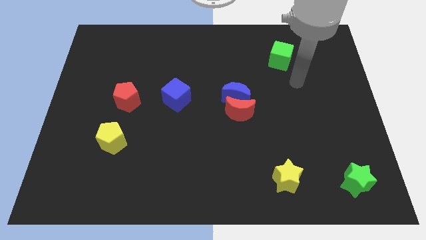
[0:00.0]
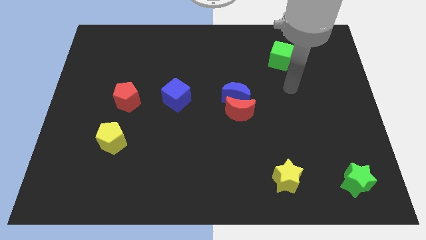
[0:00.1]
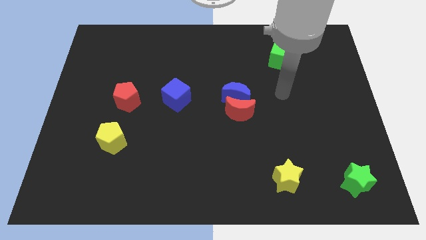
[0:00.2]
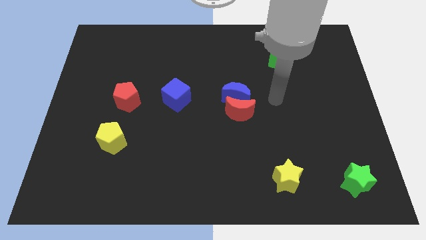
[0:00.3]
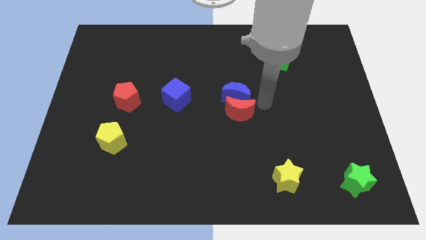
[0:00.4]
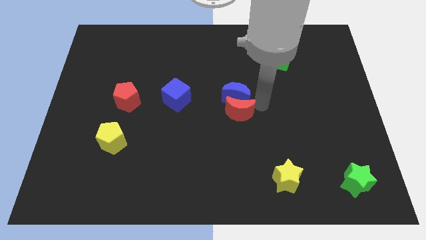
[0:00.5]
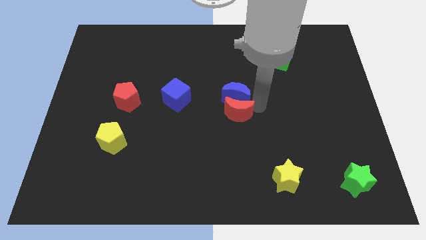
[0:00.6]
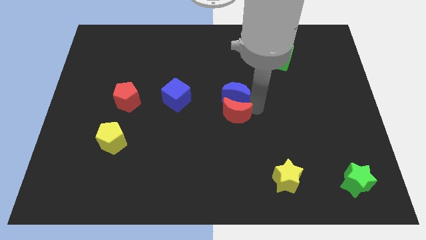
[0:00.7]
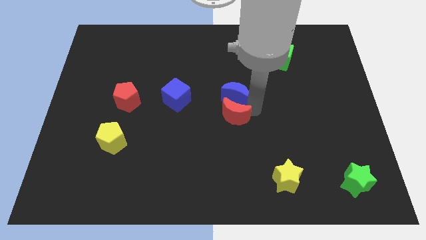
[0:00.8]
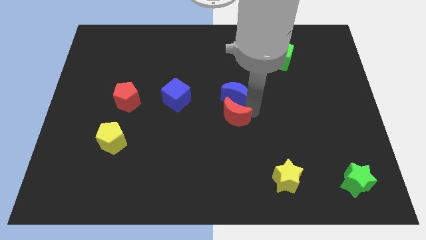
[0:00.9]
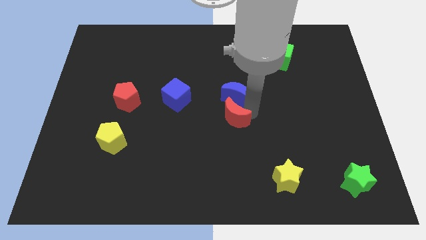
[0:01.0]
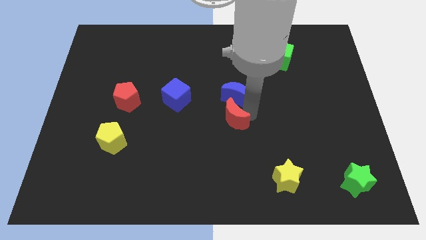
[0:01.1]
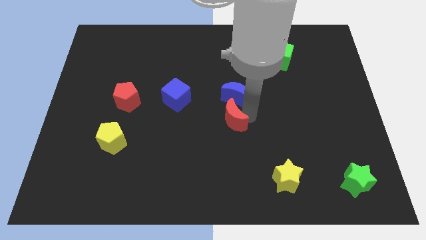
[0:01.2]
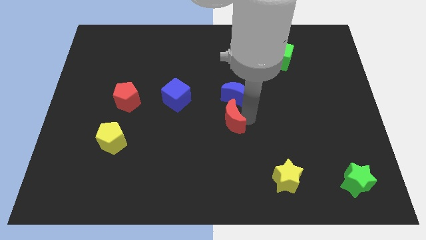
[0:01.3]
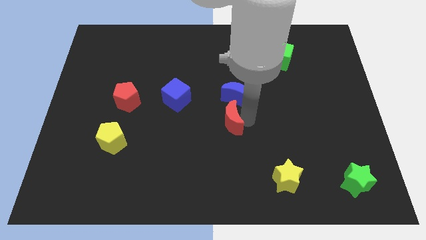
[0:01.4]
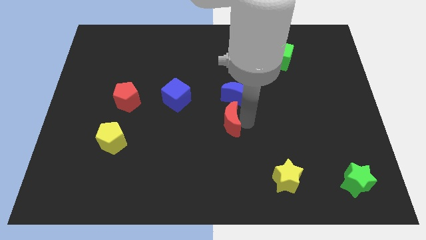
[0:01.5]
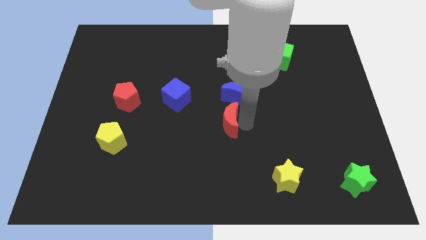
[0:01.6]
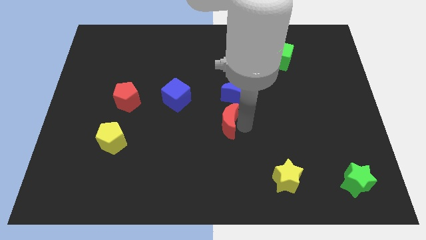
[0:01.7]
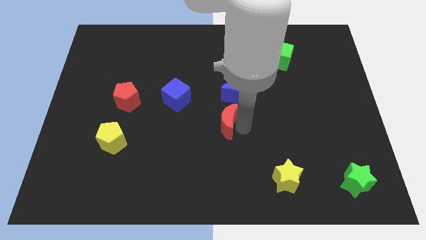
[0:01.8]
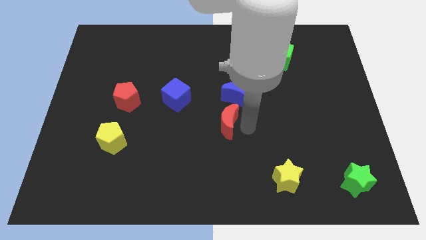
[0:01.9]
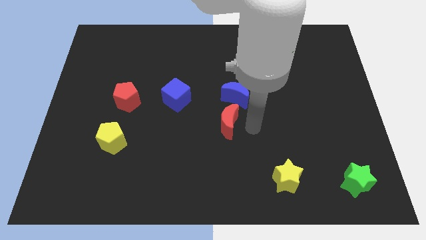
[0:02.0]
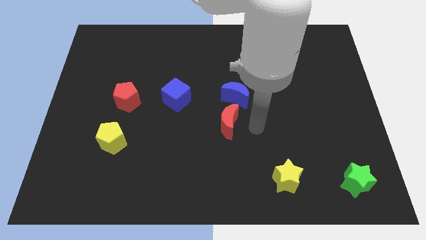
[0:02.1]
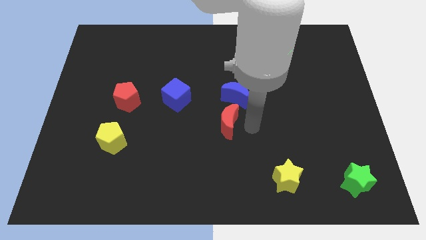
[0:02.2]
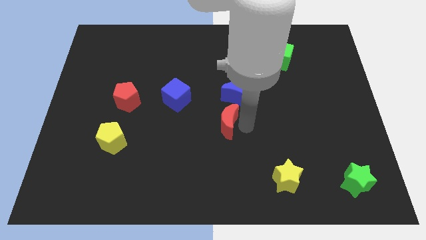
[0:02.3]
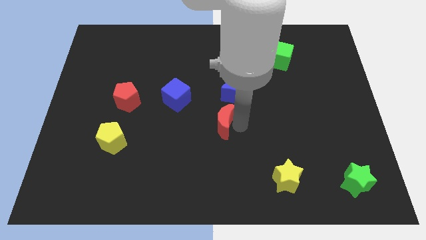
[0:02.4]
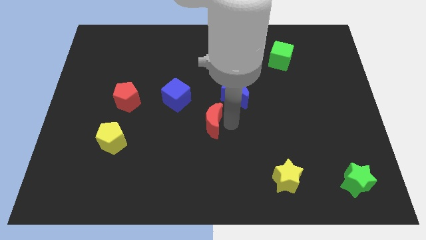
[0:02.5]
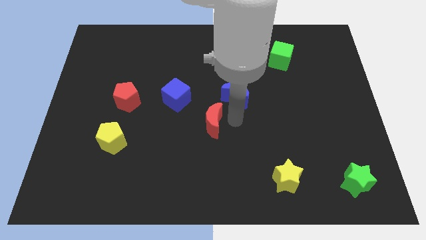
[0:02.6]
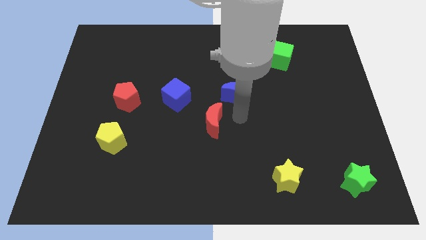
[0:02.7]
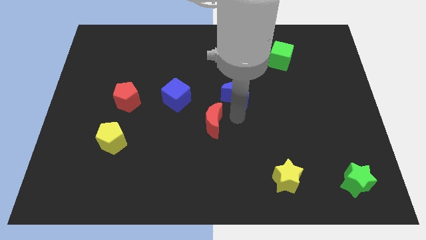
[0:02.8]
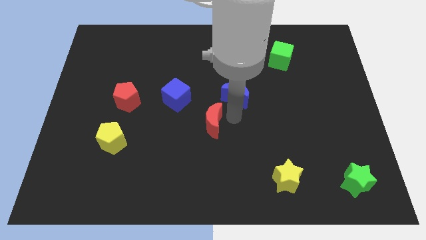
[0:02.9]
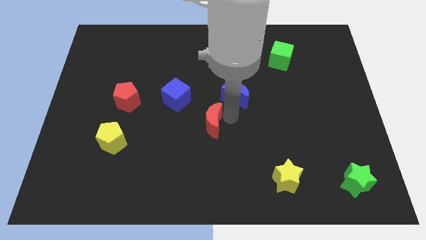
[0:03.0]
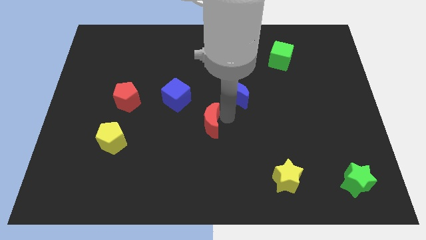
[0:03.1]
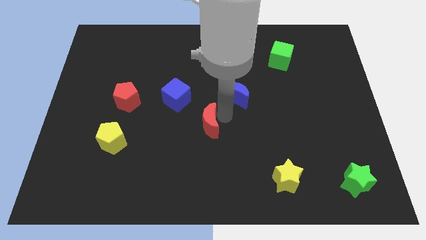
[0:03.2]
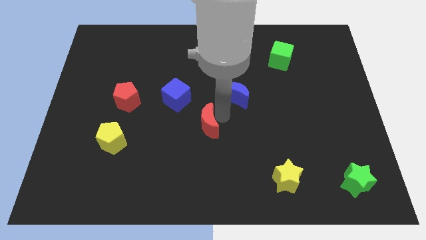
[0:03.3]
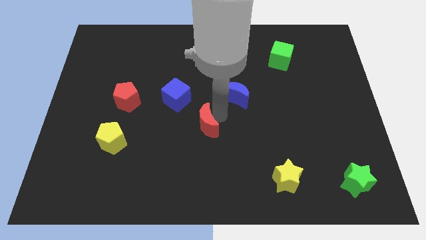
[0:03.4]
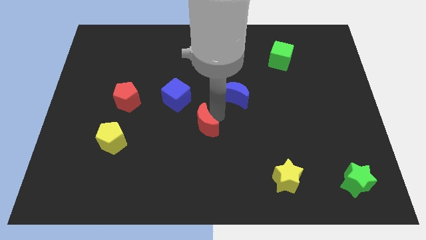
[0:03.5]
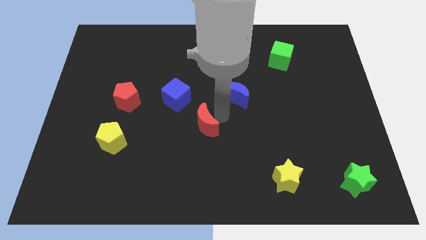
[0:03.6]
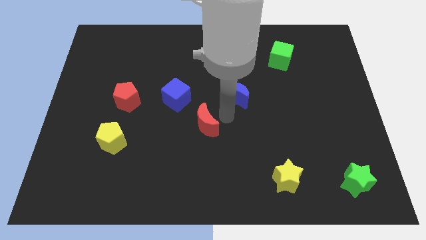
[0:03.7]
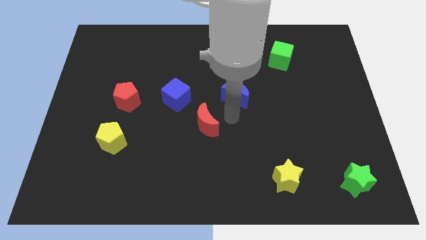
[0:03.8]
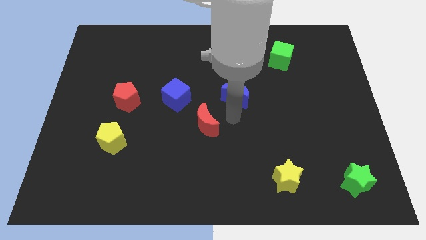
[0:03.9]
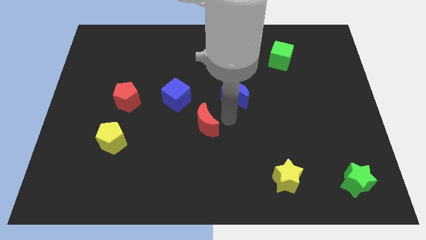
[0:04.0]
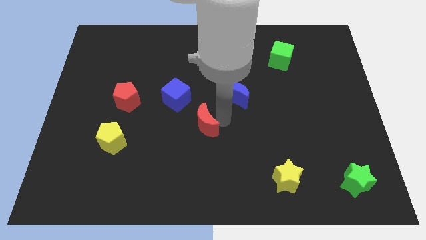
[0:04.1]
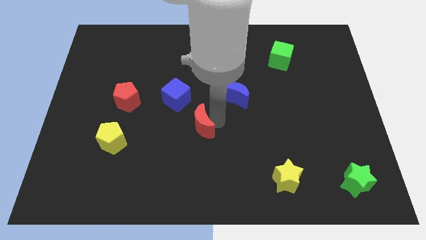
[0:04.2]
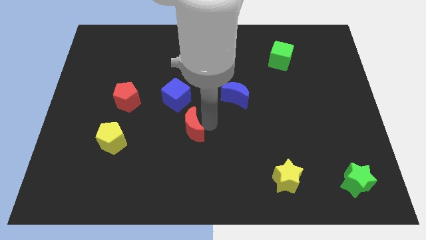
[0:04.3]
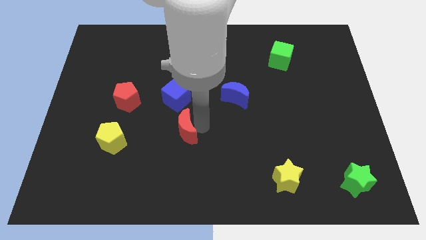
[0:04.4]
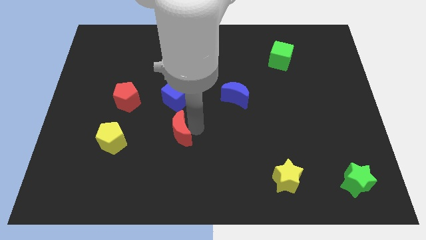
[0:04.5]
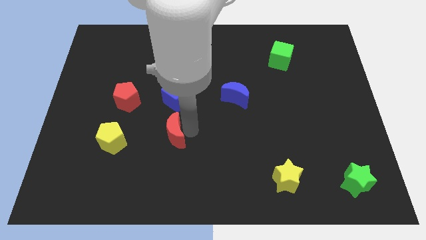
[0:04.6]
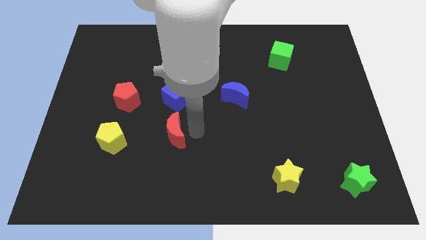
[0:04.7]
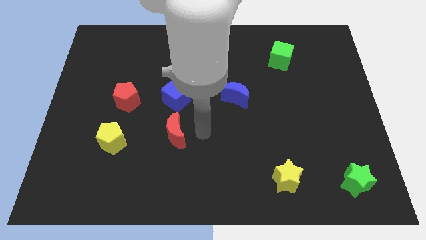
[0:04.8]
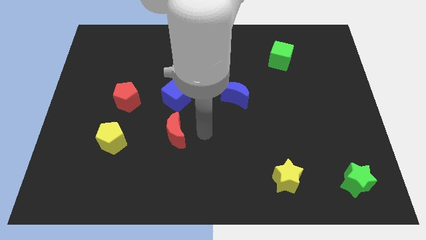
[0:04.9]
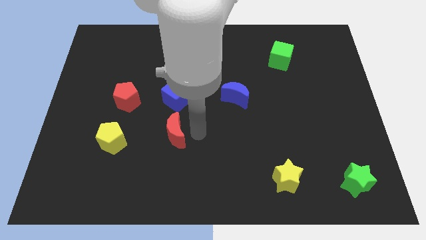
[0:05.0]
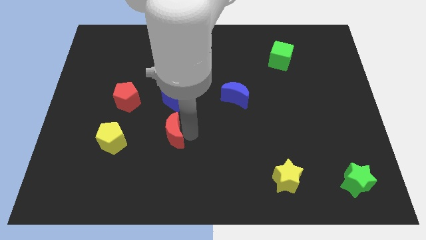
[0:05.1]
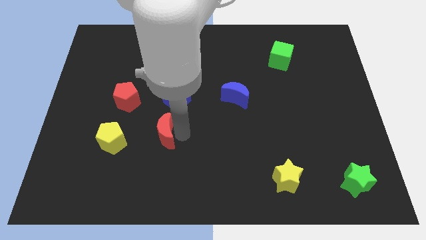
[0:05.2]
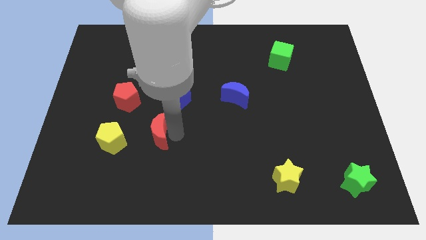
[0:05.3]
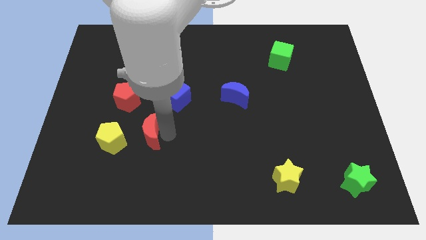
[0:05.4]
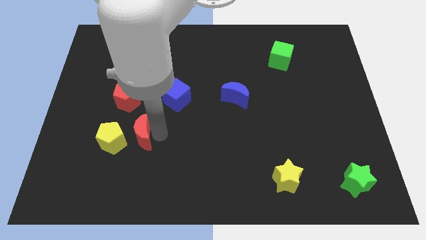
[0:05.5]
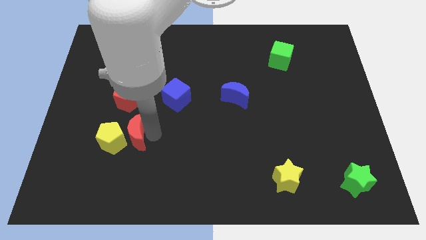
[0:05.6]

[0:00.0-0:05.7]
slide the red moon next to the yellow pentagon

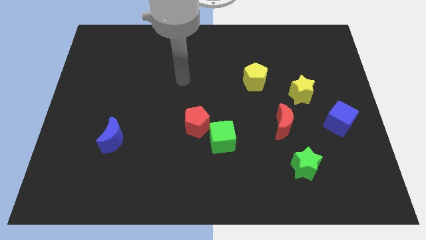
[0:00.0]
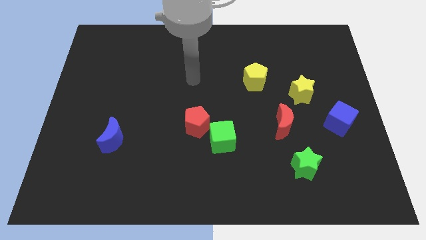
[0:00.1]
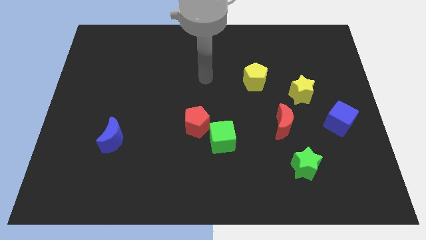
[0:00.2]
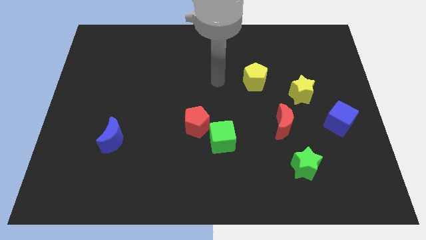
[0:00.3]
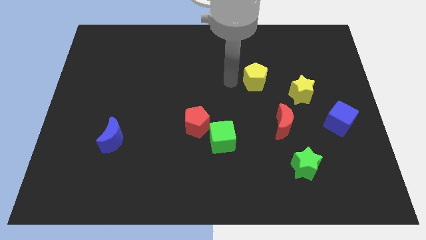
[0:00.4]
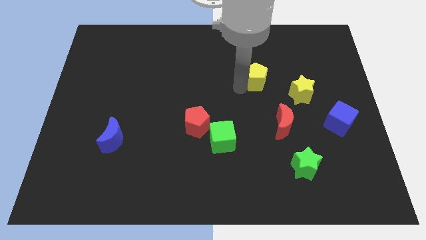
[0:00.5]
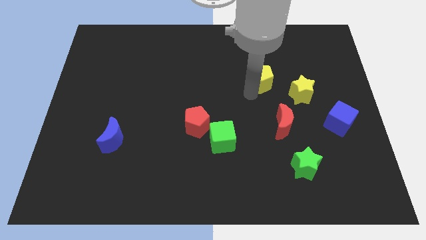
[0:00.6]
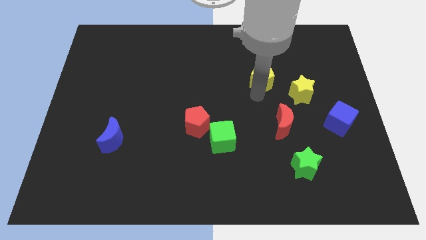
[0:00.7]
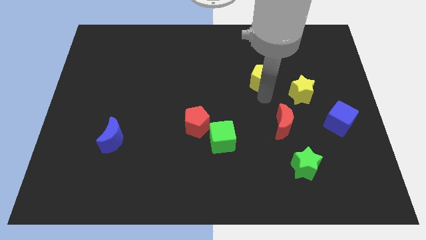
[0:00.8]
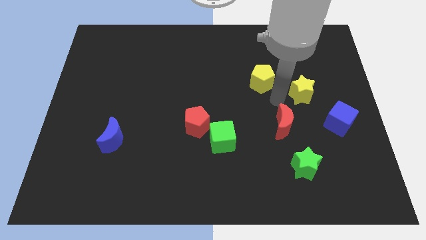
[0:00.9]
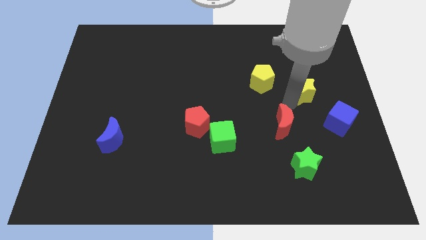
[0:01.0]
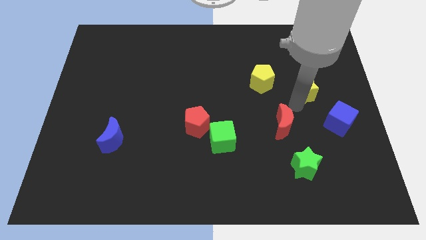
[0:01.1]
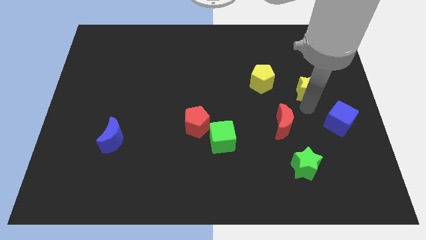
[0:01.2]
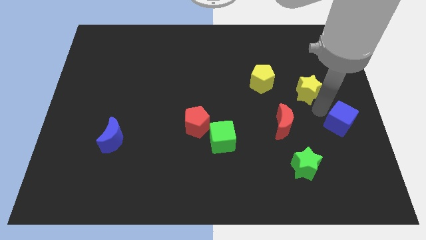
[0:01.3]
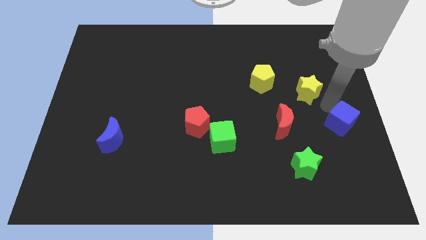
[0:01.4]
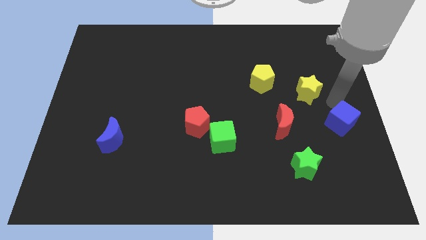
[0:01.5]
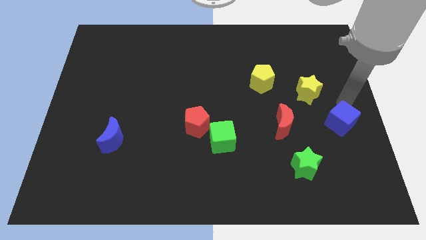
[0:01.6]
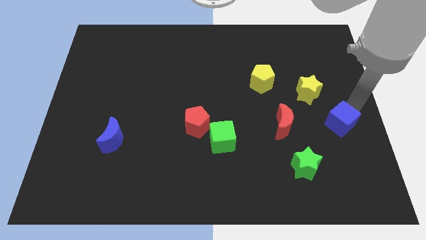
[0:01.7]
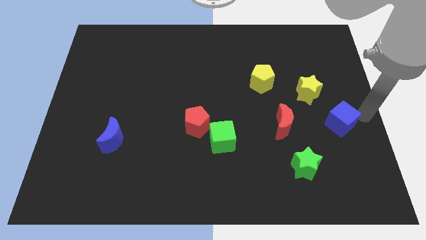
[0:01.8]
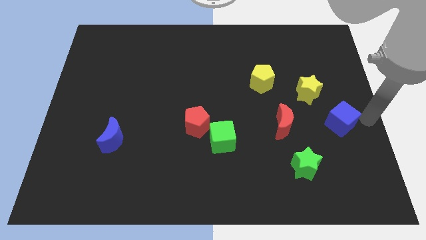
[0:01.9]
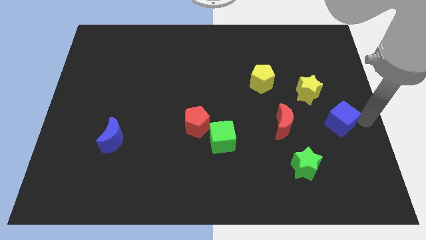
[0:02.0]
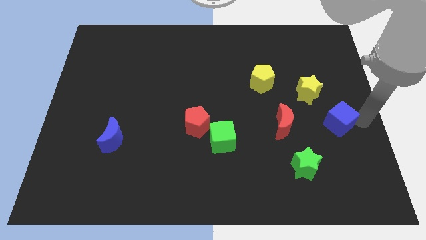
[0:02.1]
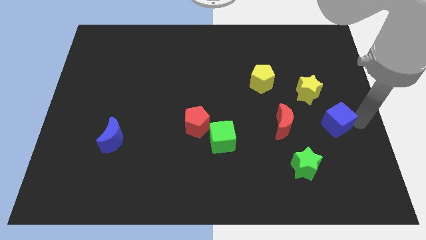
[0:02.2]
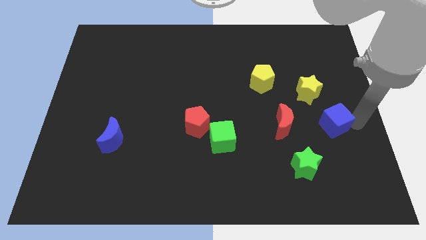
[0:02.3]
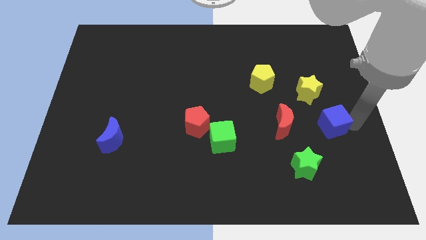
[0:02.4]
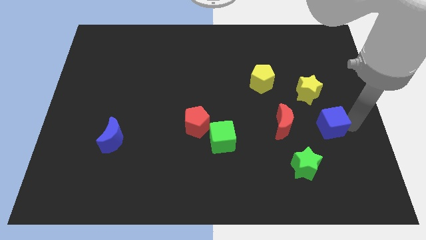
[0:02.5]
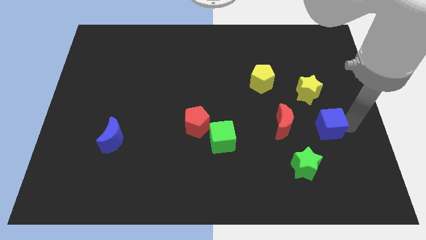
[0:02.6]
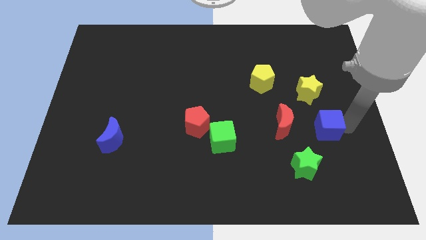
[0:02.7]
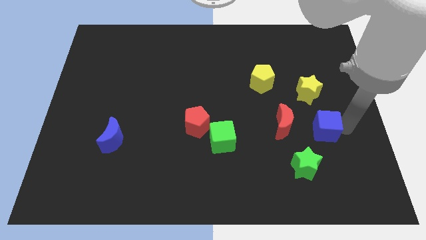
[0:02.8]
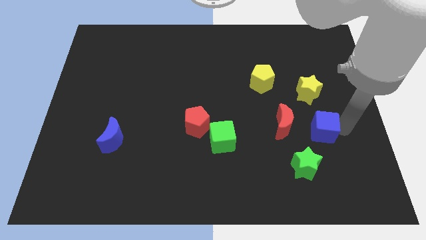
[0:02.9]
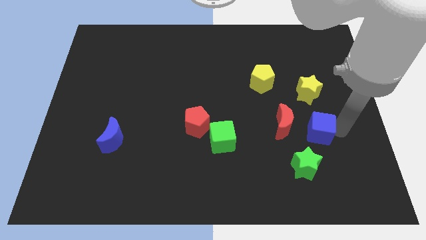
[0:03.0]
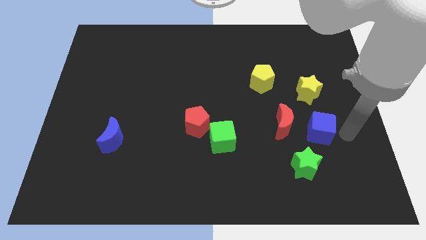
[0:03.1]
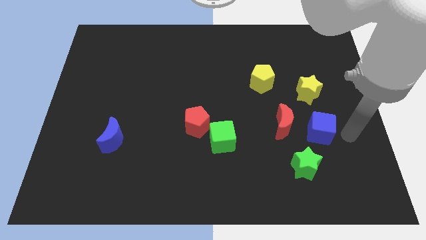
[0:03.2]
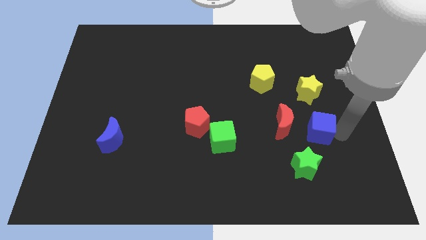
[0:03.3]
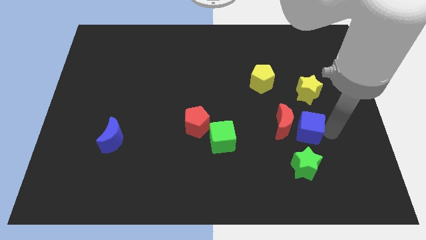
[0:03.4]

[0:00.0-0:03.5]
slide the blue cube towards the red moon
